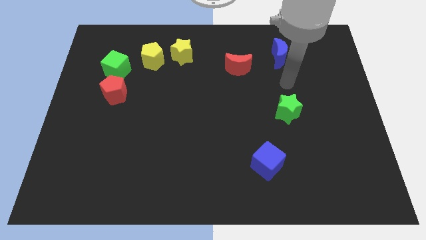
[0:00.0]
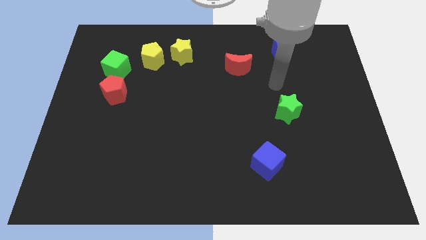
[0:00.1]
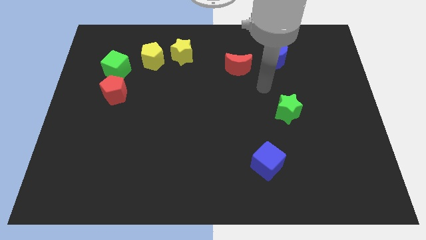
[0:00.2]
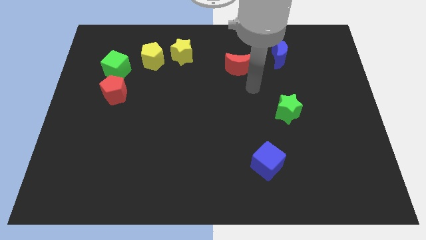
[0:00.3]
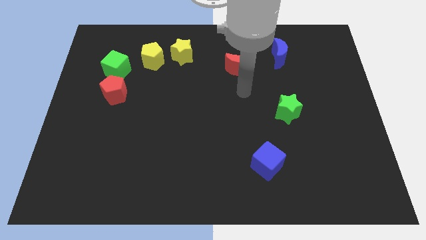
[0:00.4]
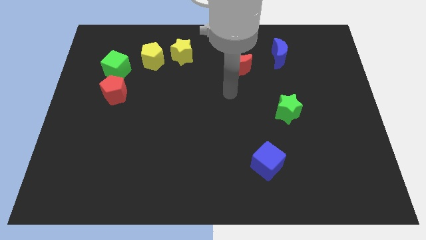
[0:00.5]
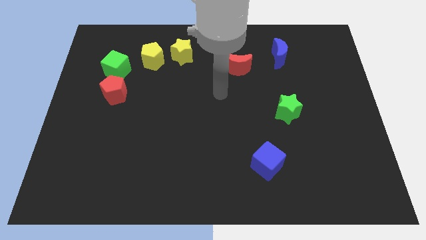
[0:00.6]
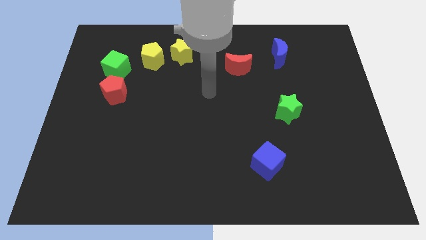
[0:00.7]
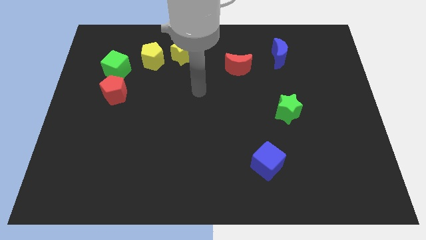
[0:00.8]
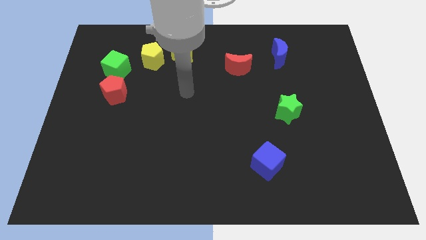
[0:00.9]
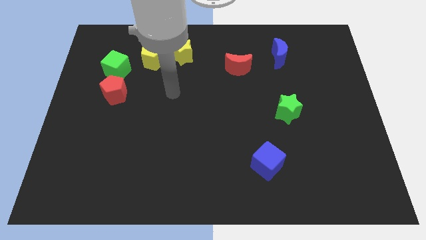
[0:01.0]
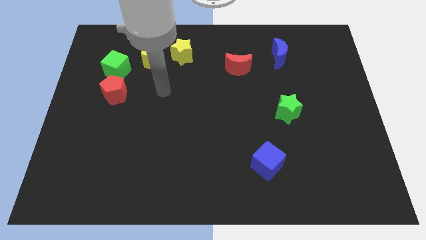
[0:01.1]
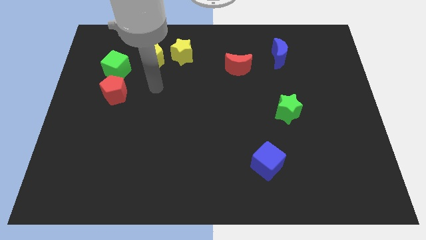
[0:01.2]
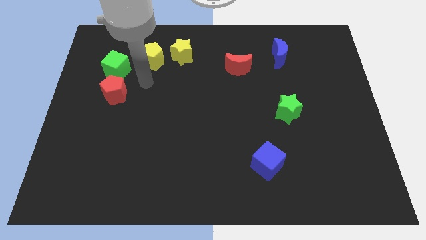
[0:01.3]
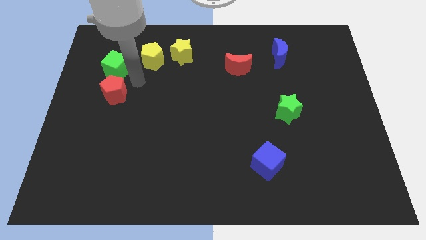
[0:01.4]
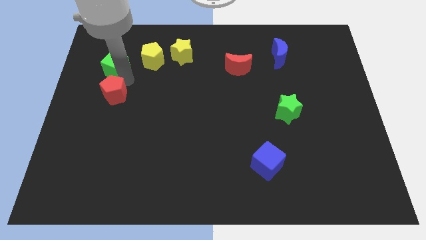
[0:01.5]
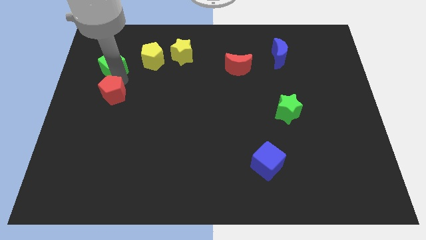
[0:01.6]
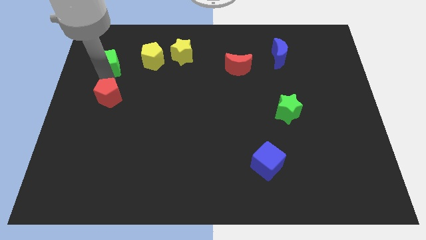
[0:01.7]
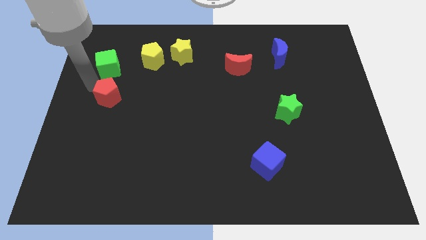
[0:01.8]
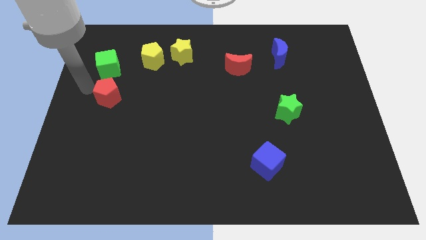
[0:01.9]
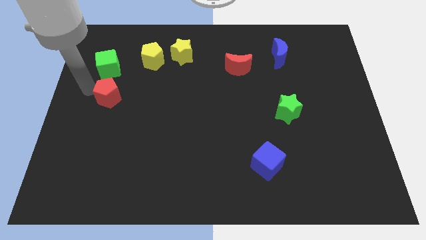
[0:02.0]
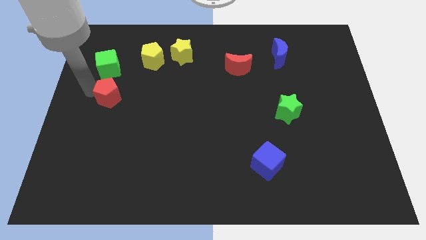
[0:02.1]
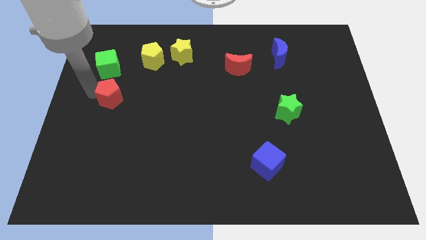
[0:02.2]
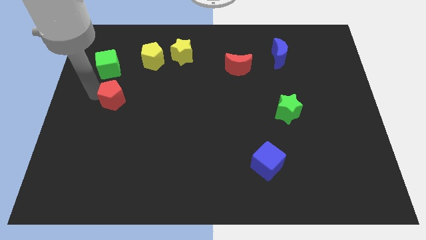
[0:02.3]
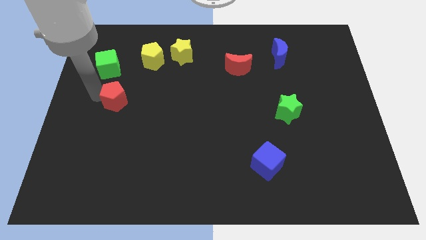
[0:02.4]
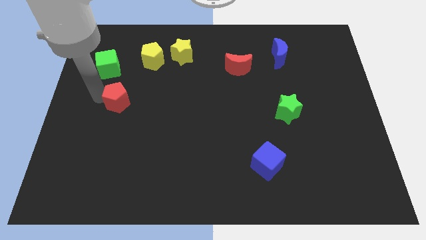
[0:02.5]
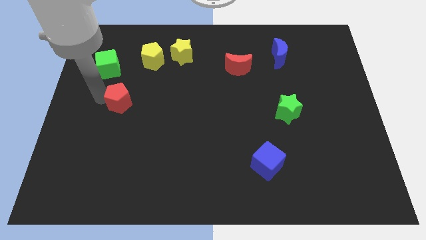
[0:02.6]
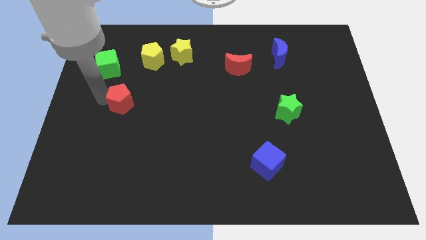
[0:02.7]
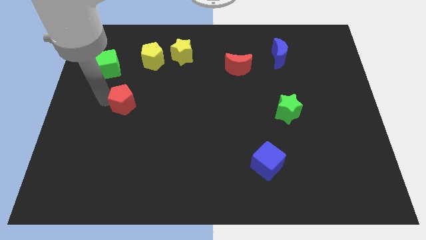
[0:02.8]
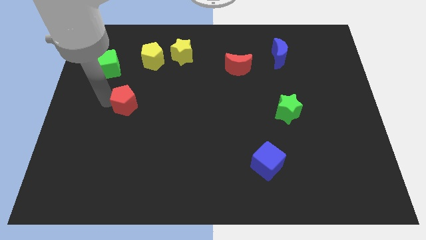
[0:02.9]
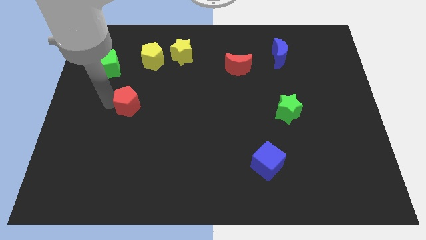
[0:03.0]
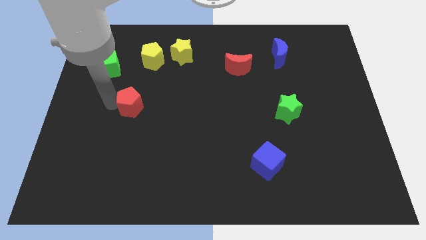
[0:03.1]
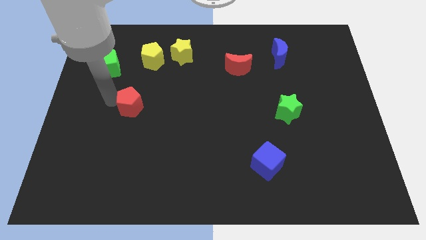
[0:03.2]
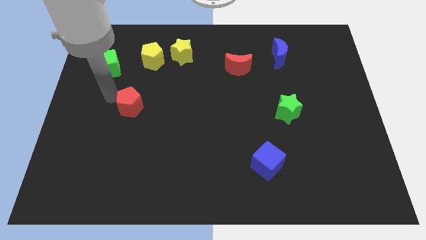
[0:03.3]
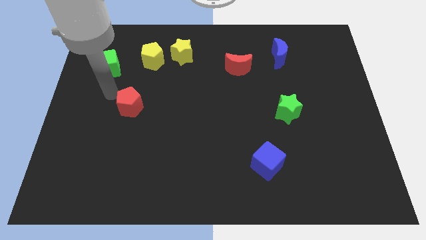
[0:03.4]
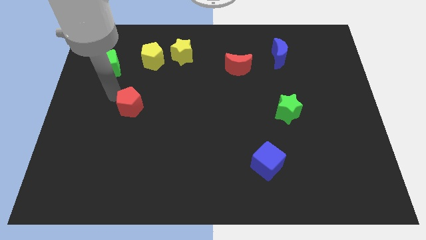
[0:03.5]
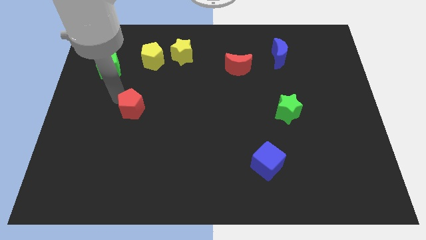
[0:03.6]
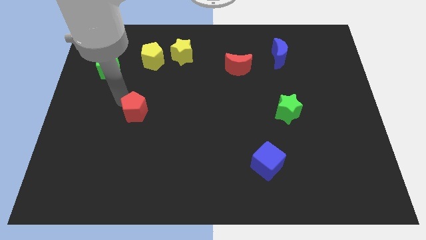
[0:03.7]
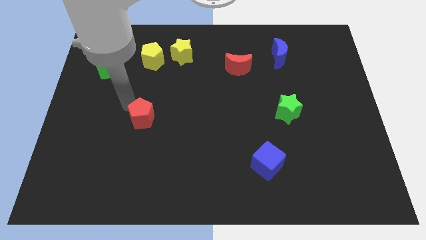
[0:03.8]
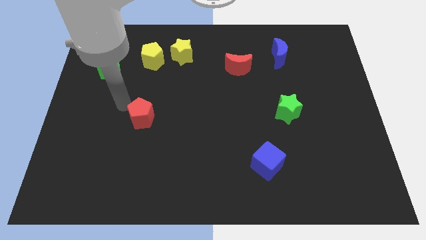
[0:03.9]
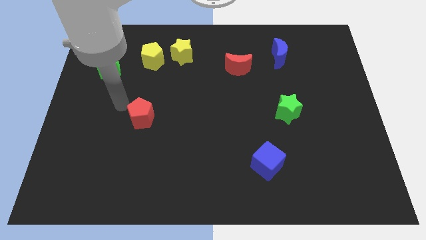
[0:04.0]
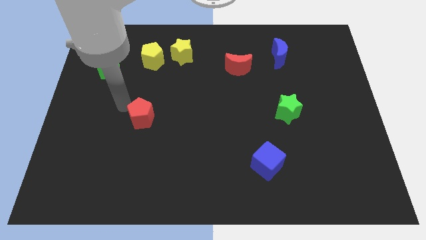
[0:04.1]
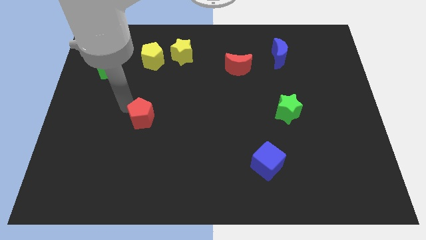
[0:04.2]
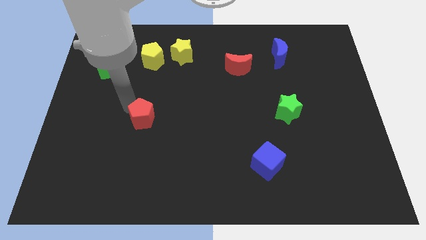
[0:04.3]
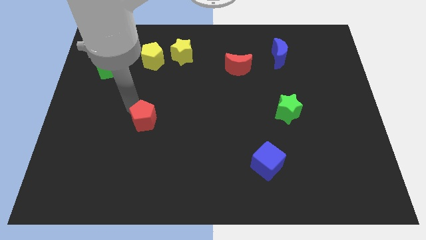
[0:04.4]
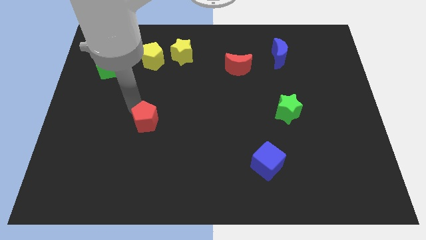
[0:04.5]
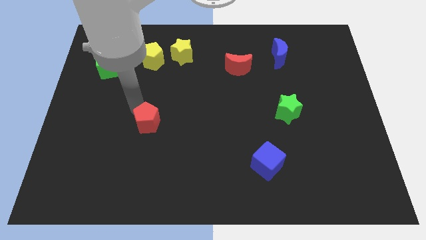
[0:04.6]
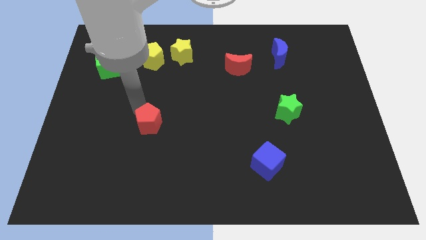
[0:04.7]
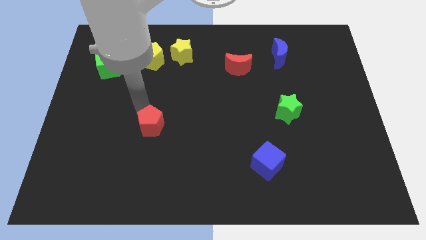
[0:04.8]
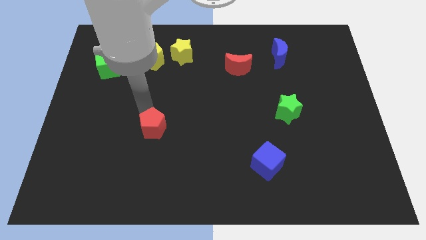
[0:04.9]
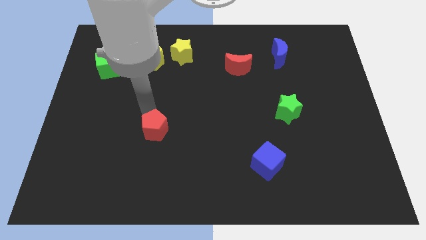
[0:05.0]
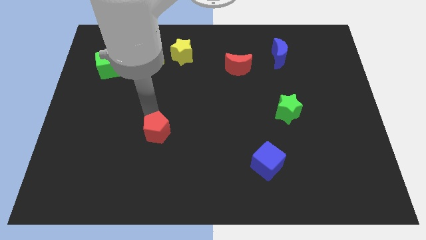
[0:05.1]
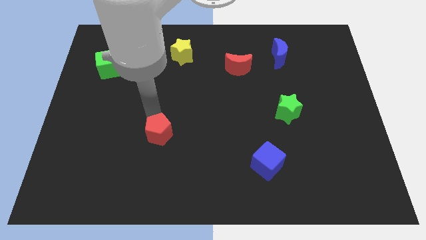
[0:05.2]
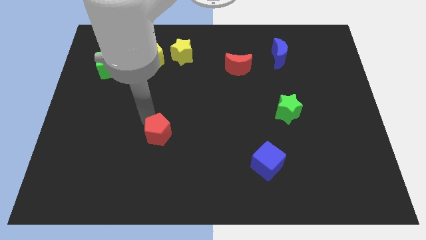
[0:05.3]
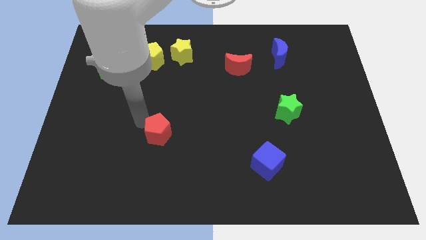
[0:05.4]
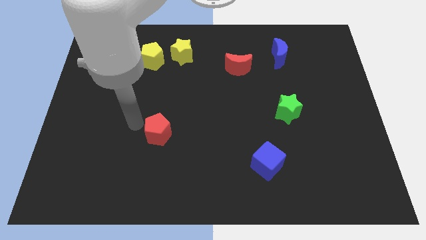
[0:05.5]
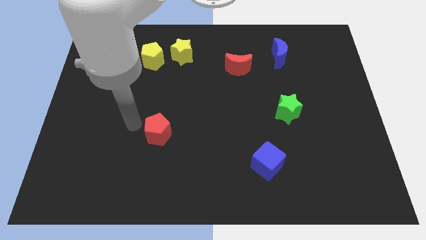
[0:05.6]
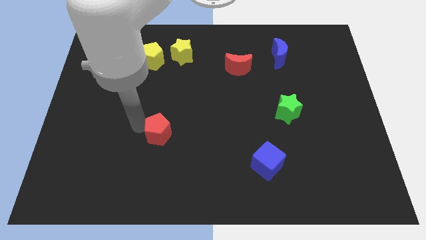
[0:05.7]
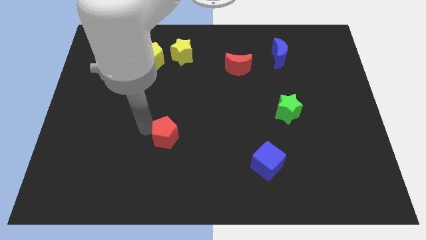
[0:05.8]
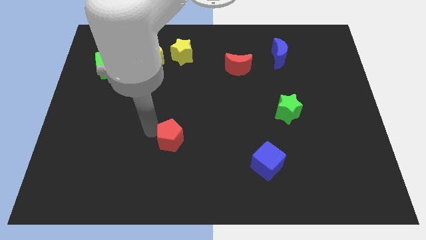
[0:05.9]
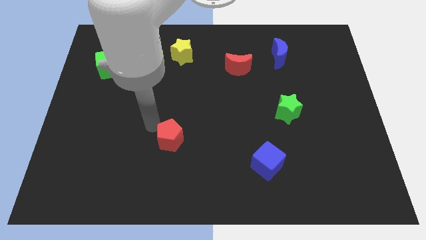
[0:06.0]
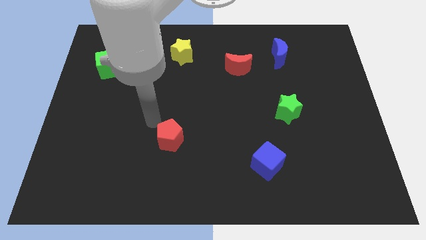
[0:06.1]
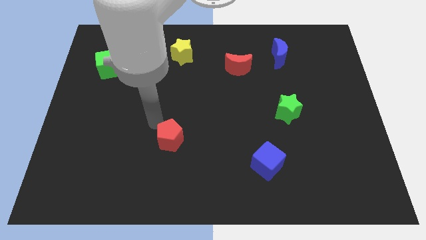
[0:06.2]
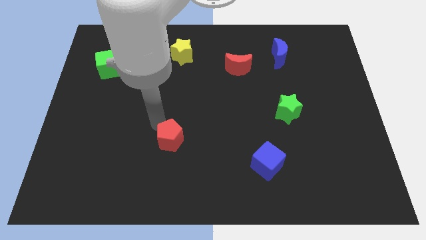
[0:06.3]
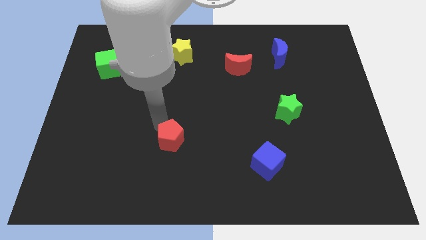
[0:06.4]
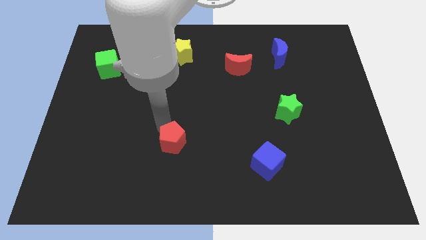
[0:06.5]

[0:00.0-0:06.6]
move the red pentagon downwards and to the right

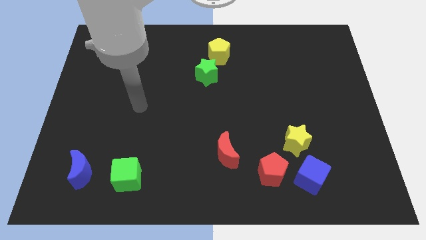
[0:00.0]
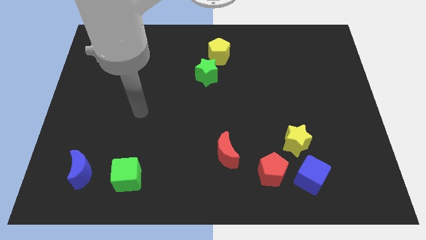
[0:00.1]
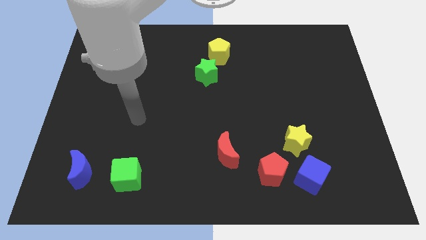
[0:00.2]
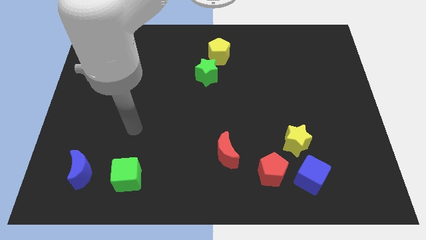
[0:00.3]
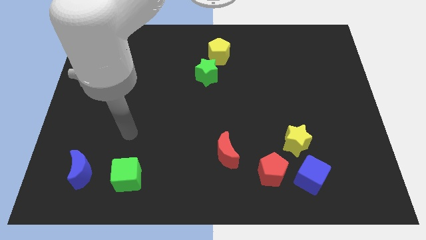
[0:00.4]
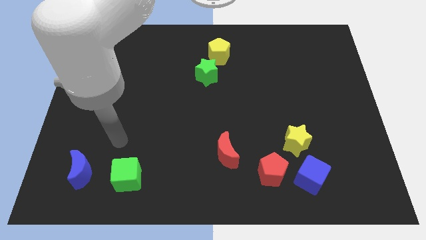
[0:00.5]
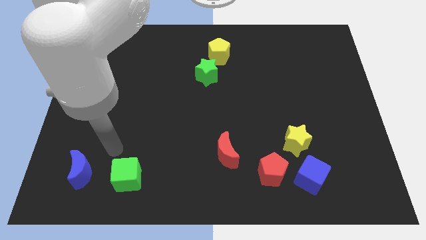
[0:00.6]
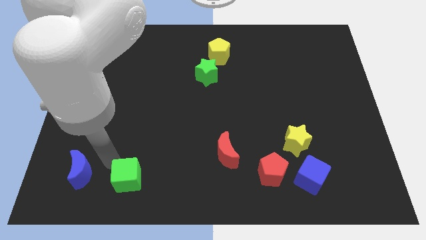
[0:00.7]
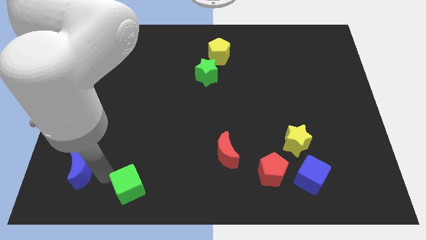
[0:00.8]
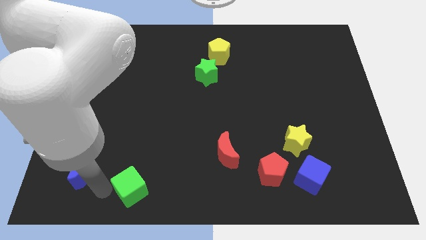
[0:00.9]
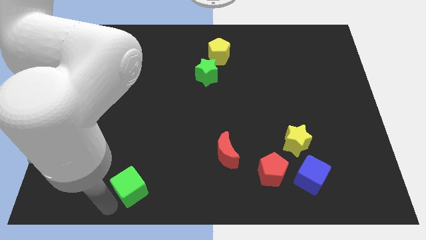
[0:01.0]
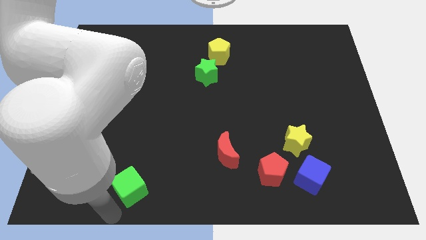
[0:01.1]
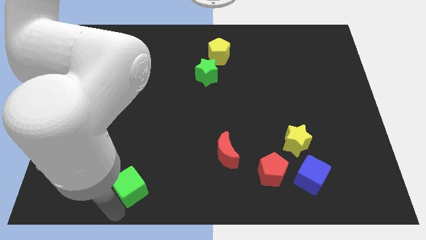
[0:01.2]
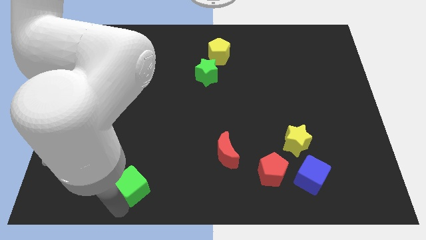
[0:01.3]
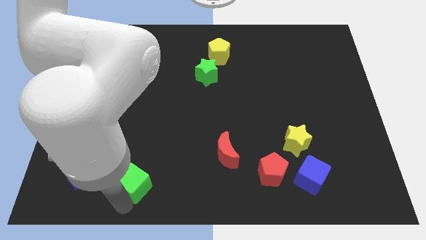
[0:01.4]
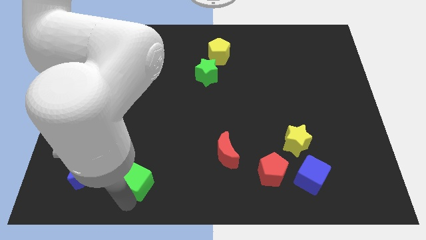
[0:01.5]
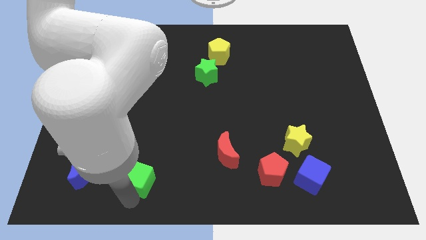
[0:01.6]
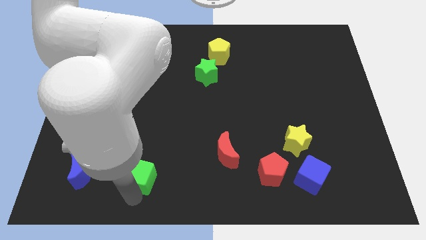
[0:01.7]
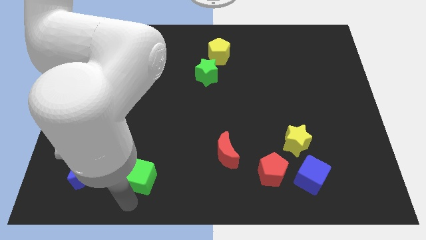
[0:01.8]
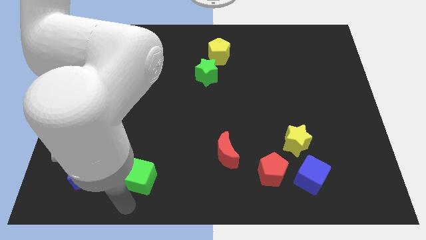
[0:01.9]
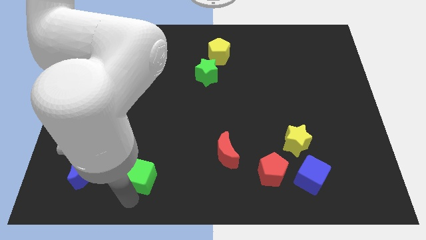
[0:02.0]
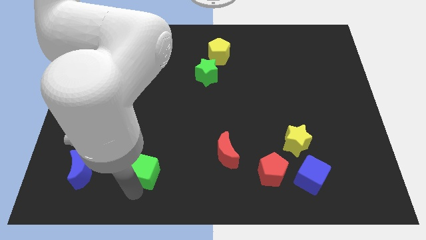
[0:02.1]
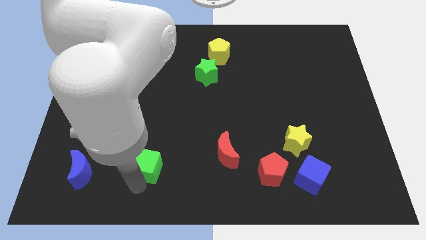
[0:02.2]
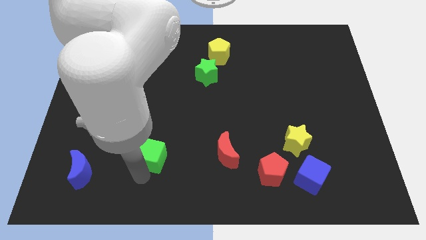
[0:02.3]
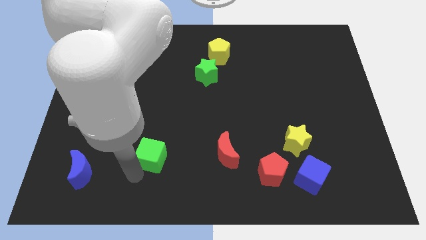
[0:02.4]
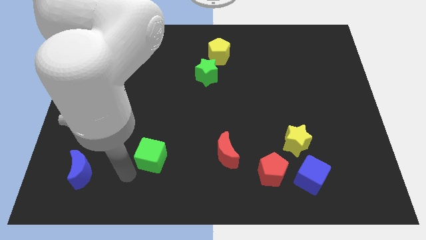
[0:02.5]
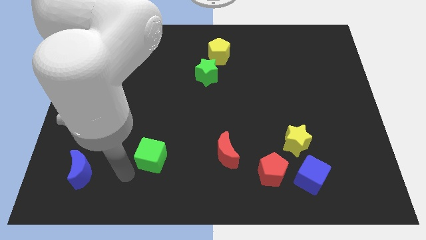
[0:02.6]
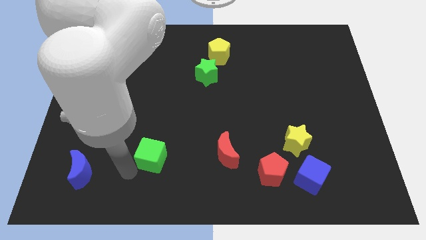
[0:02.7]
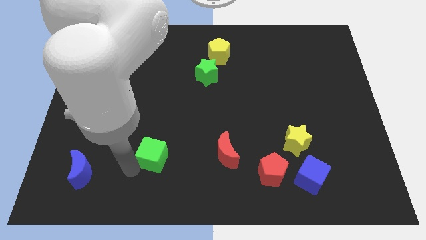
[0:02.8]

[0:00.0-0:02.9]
push the green cube a little bit up and right
